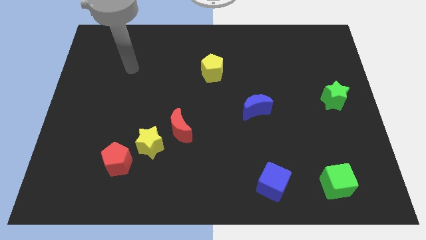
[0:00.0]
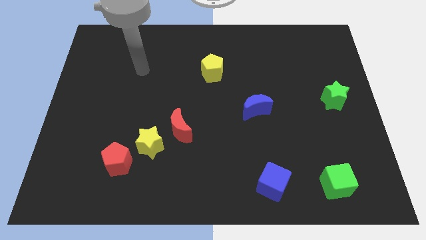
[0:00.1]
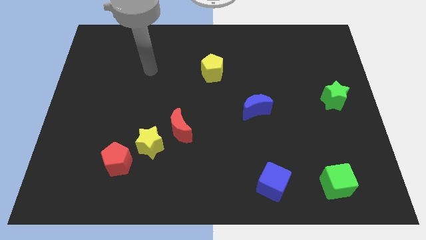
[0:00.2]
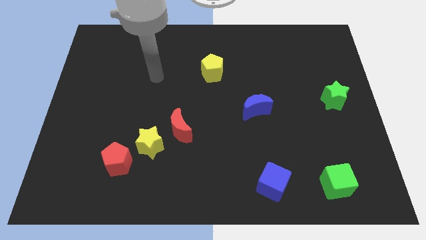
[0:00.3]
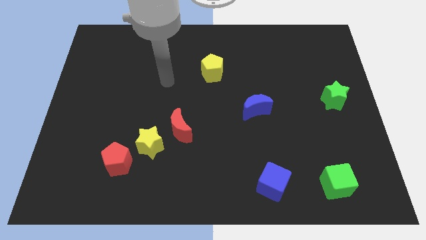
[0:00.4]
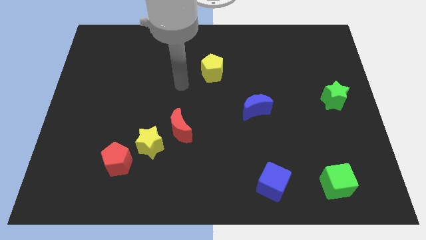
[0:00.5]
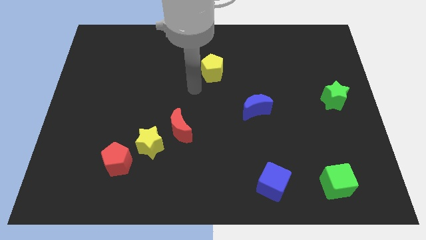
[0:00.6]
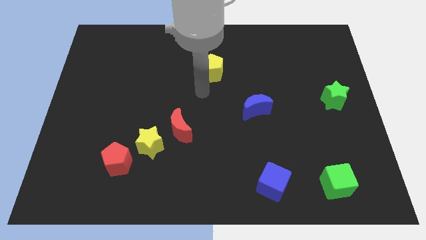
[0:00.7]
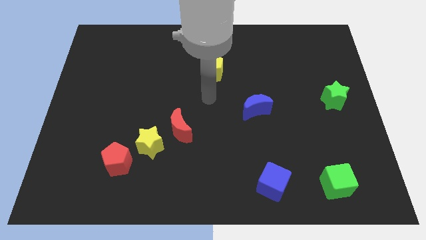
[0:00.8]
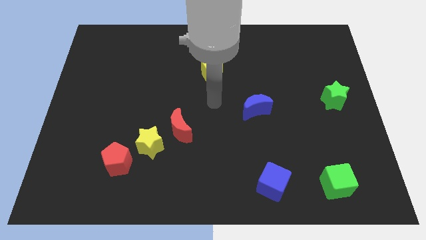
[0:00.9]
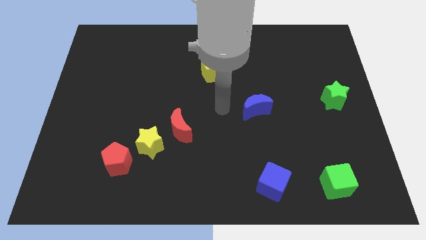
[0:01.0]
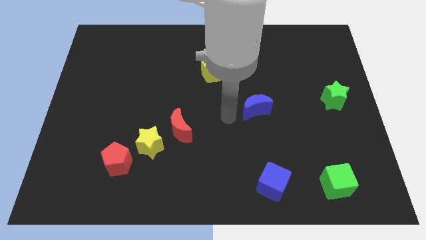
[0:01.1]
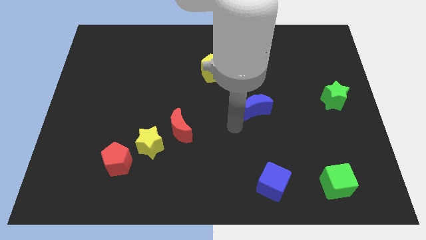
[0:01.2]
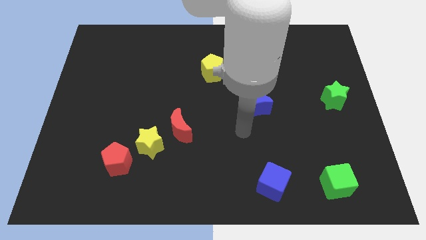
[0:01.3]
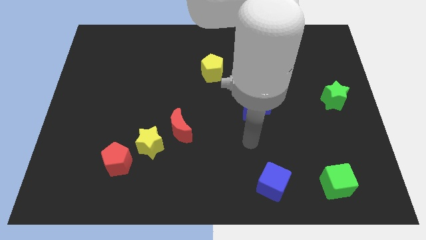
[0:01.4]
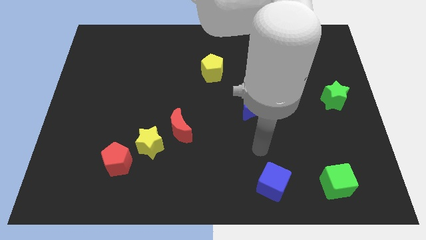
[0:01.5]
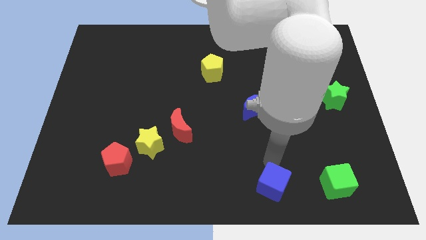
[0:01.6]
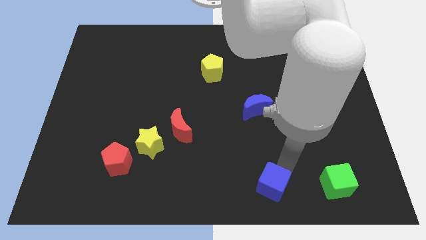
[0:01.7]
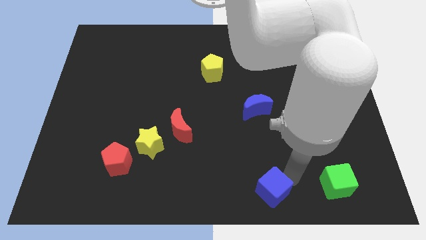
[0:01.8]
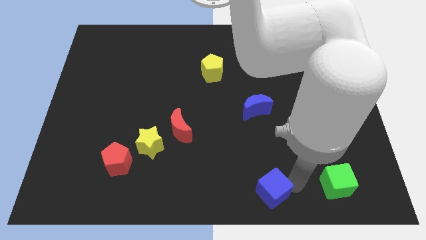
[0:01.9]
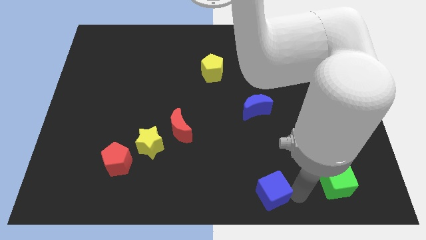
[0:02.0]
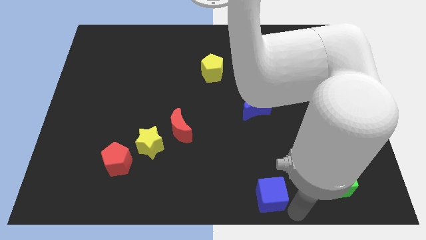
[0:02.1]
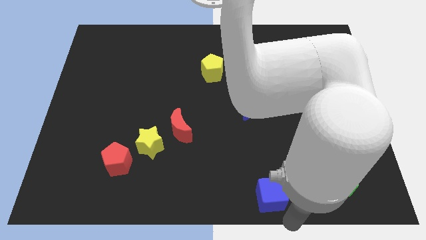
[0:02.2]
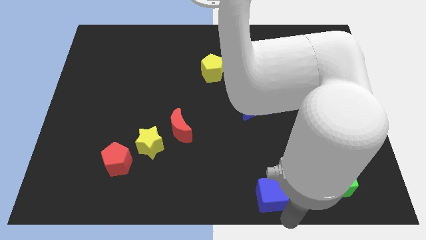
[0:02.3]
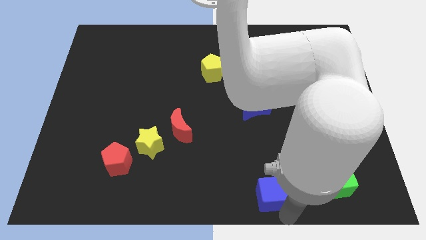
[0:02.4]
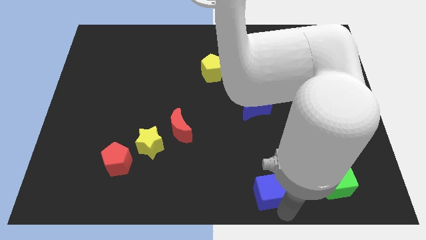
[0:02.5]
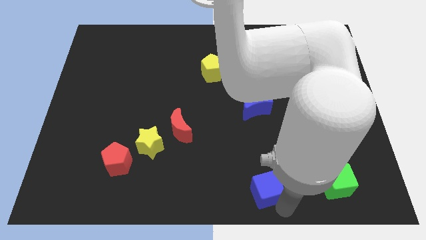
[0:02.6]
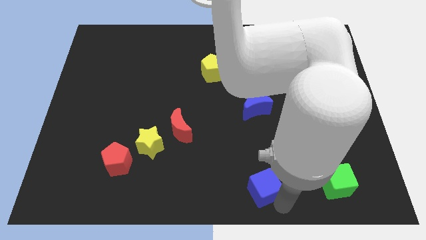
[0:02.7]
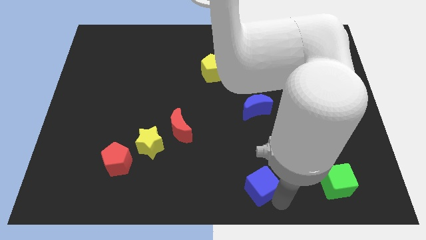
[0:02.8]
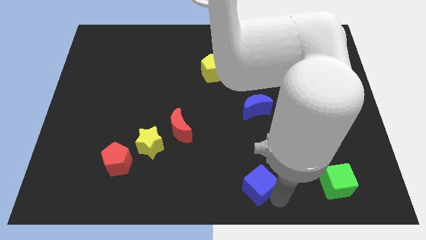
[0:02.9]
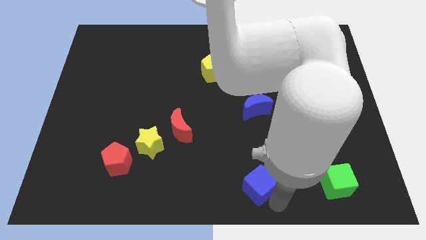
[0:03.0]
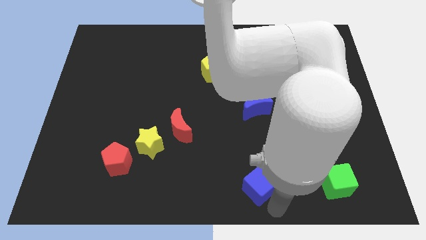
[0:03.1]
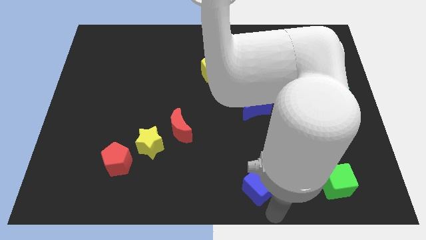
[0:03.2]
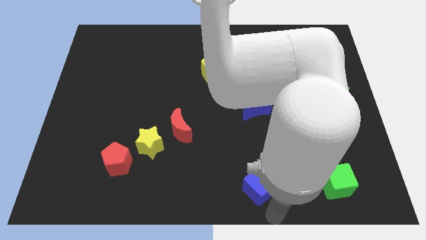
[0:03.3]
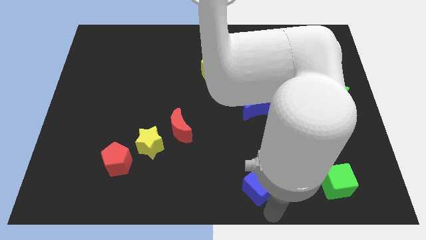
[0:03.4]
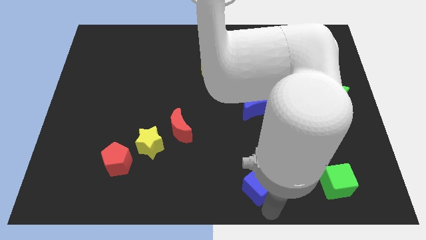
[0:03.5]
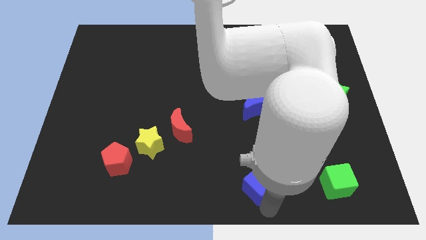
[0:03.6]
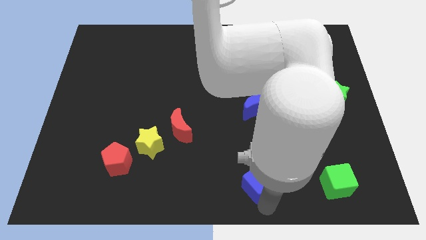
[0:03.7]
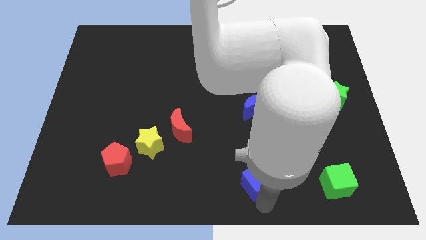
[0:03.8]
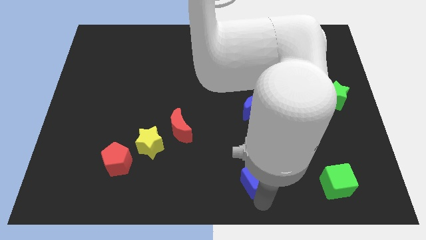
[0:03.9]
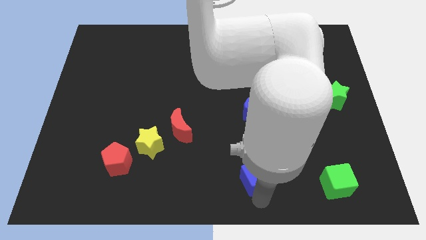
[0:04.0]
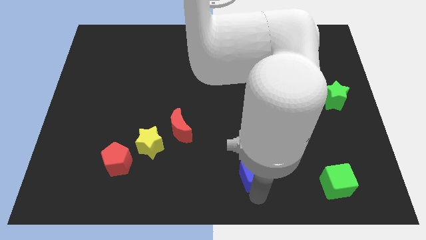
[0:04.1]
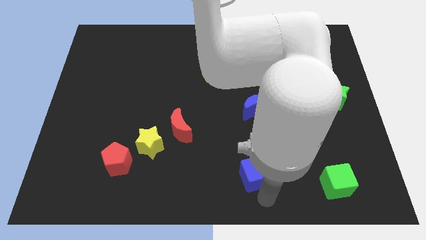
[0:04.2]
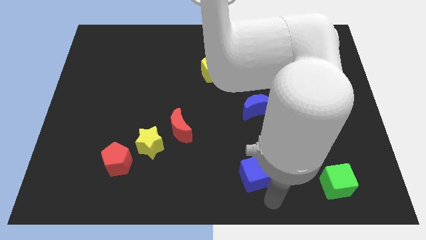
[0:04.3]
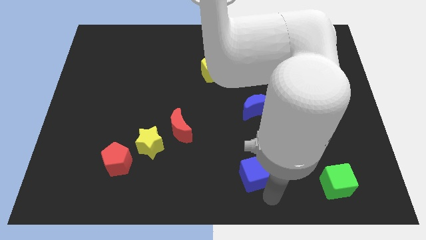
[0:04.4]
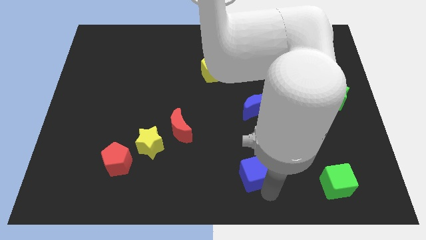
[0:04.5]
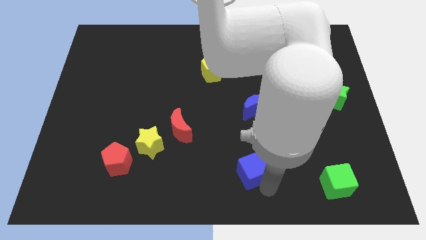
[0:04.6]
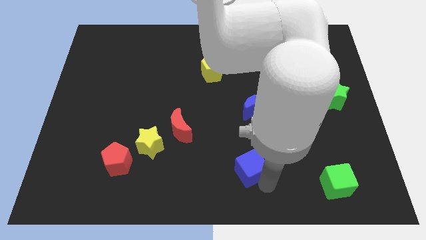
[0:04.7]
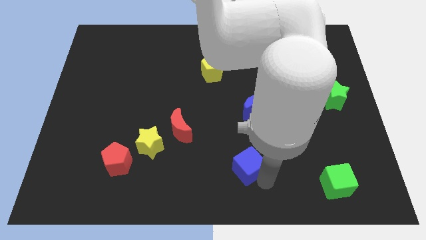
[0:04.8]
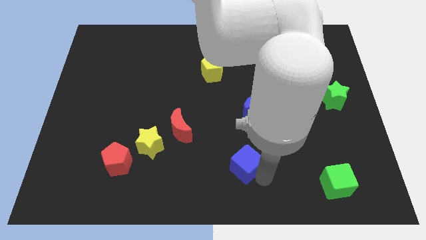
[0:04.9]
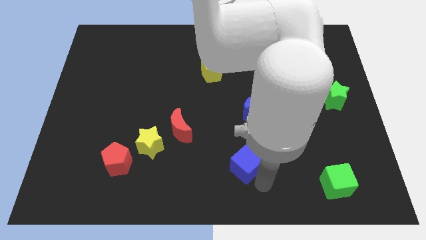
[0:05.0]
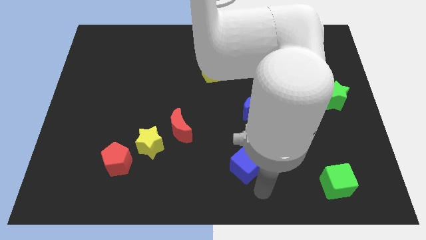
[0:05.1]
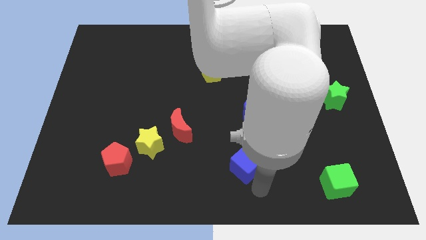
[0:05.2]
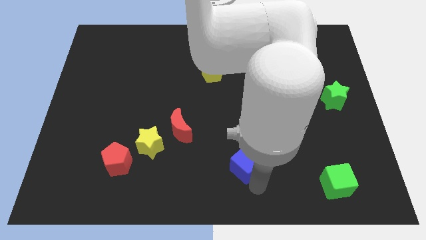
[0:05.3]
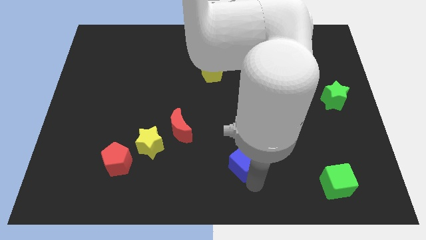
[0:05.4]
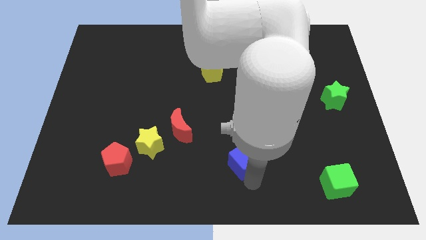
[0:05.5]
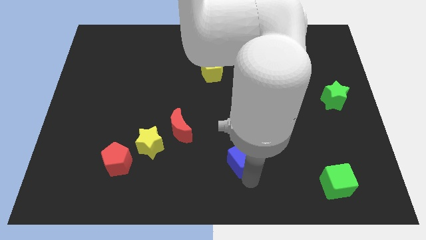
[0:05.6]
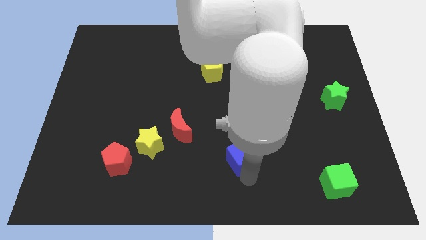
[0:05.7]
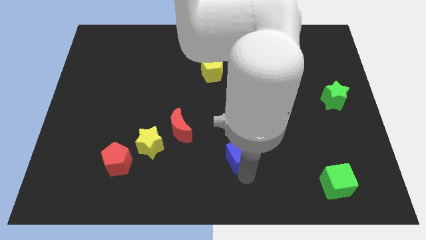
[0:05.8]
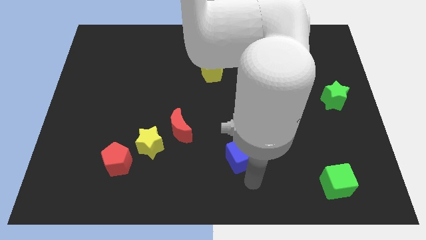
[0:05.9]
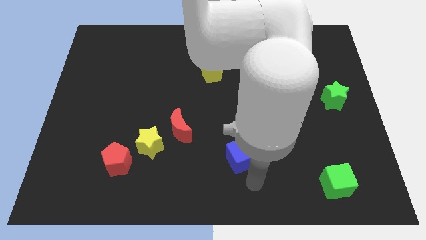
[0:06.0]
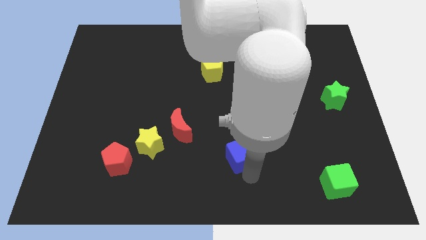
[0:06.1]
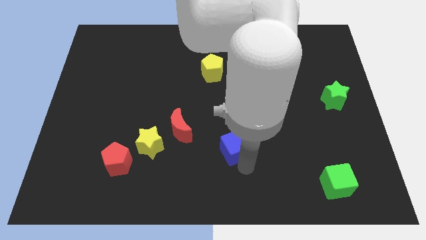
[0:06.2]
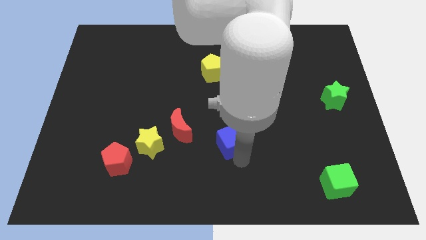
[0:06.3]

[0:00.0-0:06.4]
slide the blue cube to the right side of the red moon

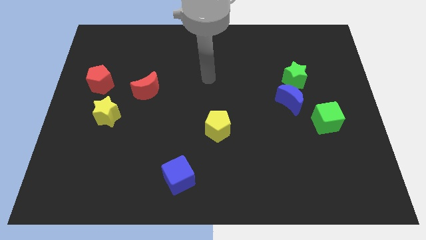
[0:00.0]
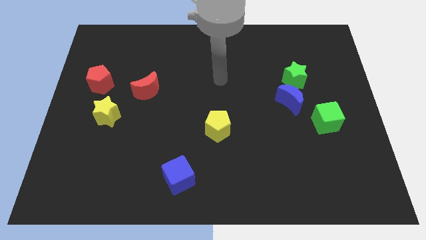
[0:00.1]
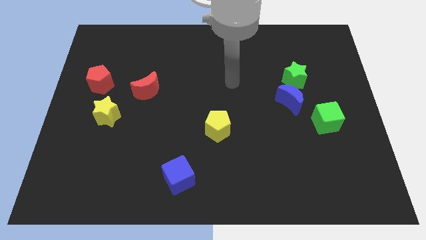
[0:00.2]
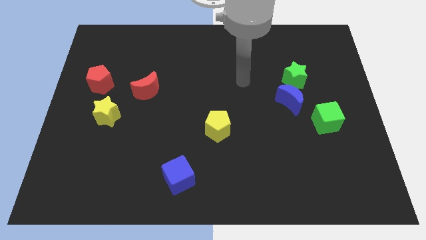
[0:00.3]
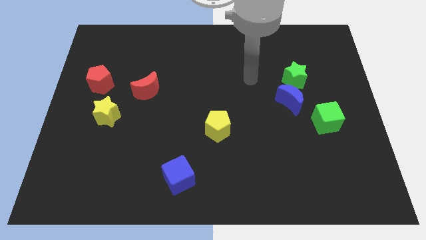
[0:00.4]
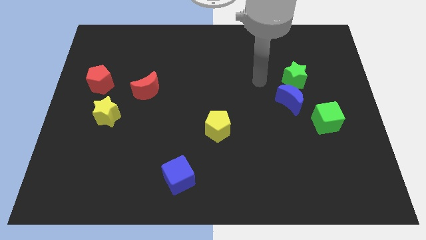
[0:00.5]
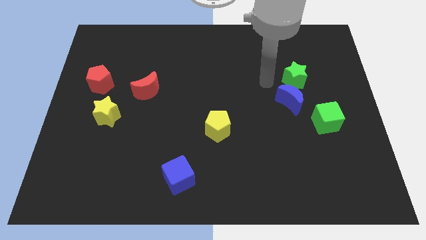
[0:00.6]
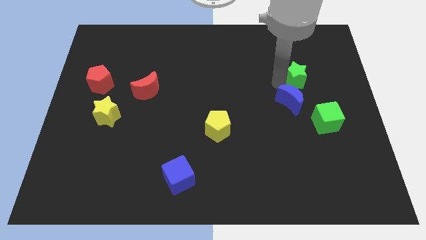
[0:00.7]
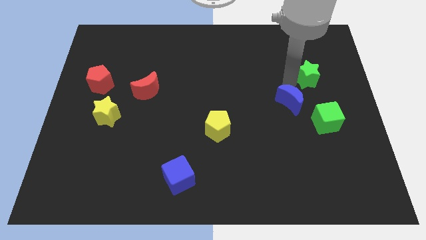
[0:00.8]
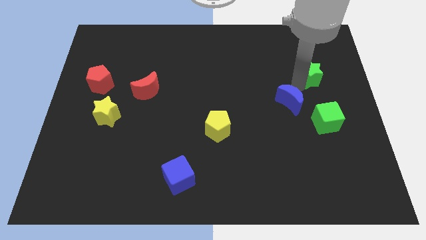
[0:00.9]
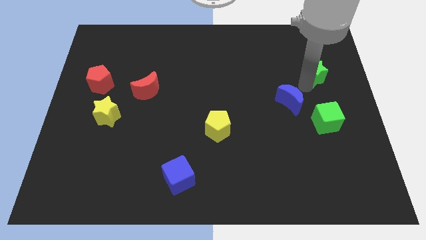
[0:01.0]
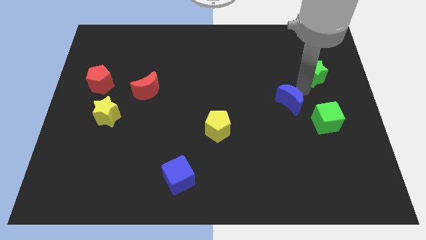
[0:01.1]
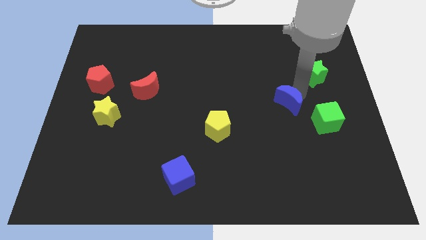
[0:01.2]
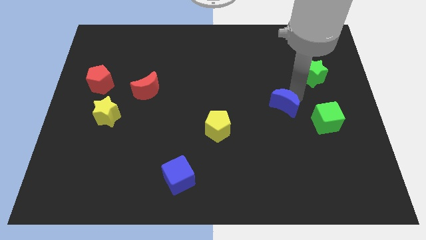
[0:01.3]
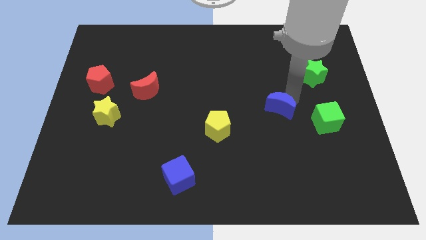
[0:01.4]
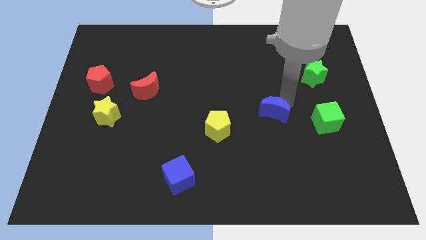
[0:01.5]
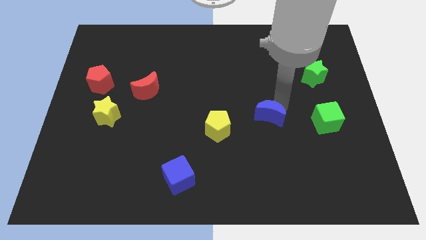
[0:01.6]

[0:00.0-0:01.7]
push the blue moon right of the yellow pentagon

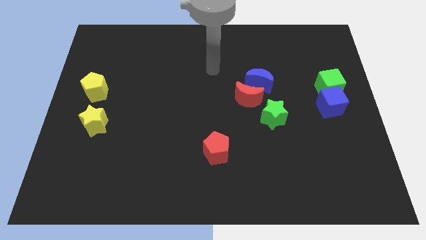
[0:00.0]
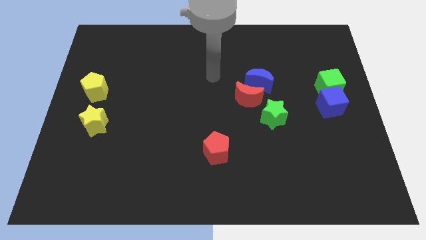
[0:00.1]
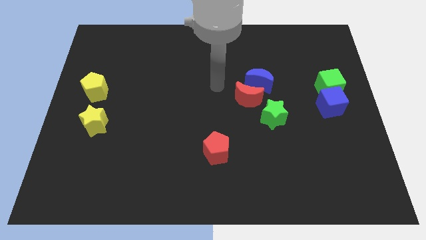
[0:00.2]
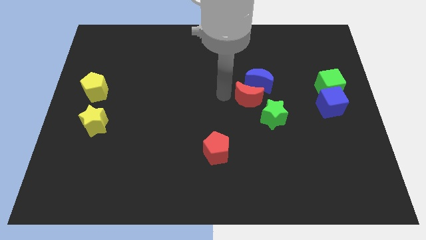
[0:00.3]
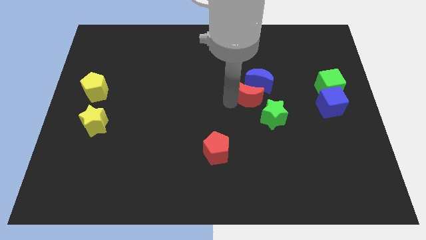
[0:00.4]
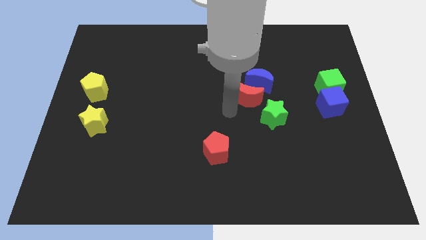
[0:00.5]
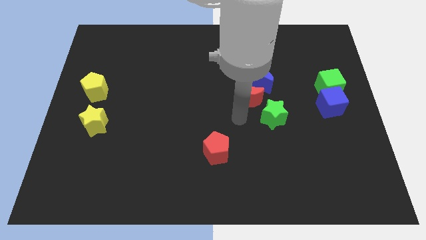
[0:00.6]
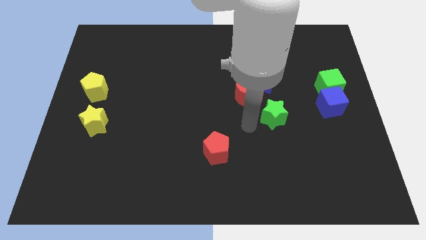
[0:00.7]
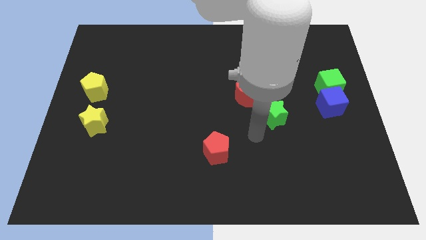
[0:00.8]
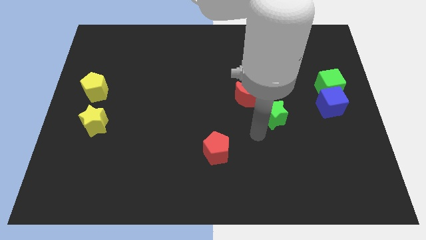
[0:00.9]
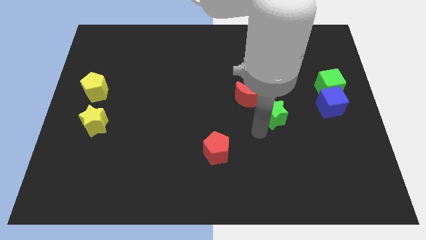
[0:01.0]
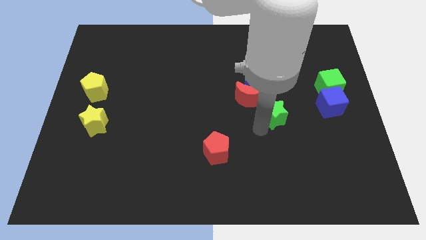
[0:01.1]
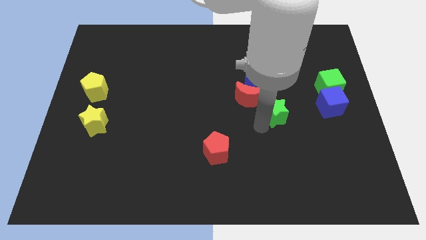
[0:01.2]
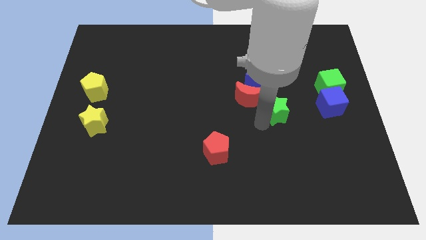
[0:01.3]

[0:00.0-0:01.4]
move the green star right of the red moon
